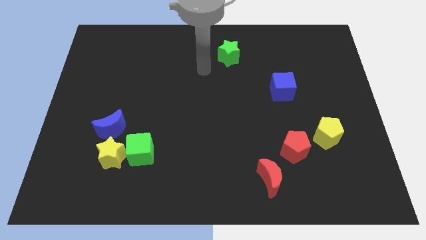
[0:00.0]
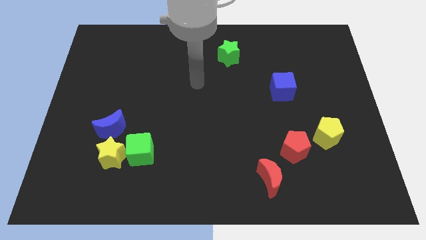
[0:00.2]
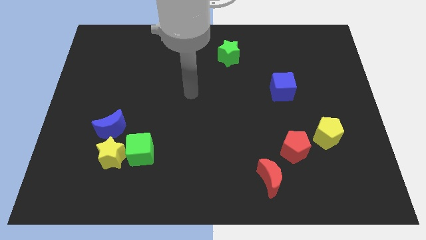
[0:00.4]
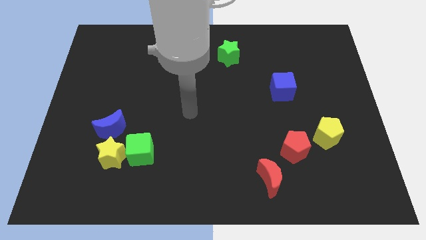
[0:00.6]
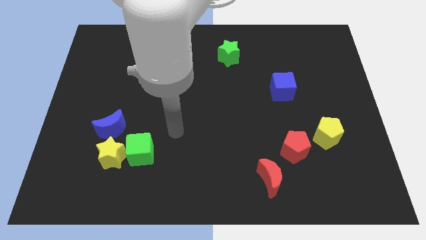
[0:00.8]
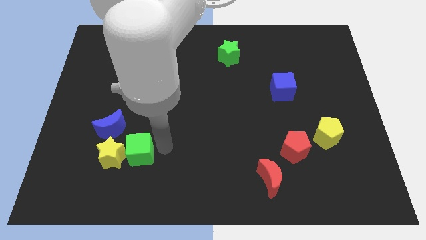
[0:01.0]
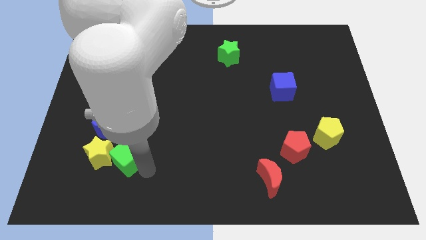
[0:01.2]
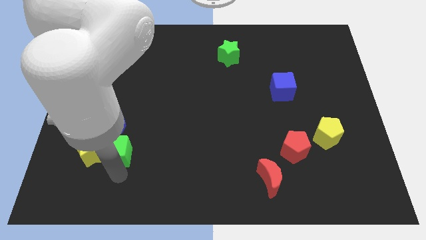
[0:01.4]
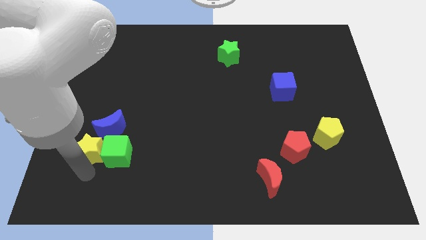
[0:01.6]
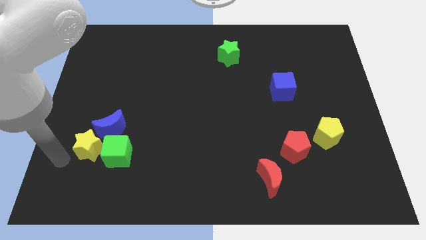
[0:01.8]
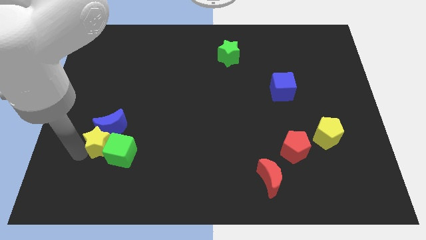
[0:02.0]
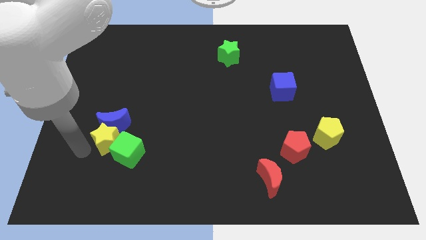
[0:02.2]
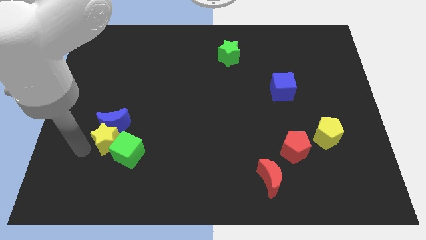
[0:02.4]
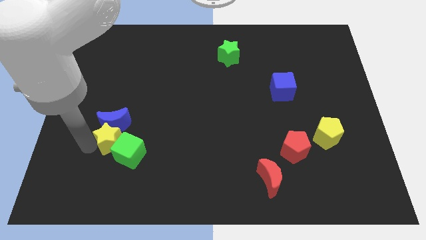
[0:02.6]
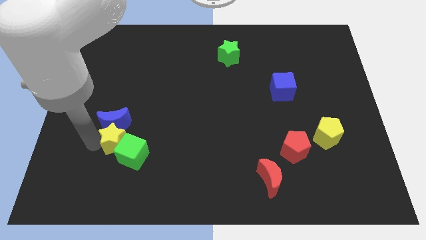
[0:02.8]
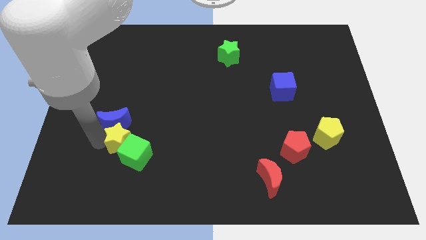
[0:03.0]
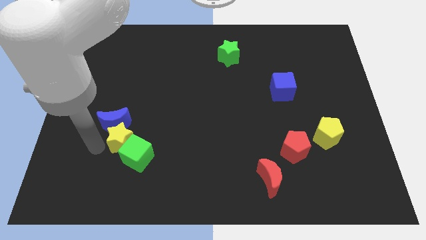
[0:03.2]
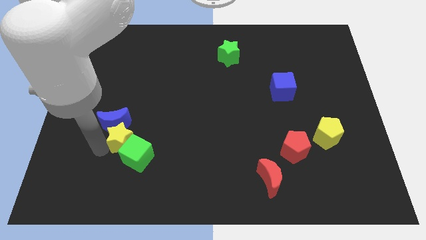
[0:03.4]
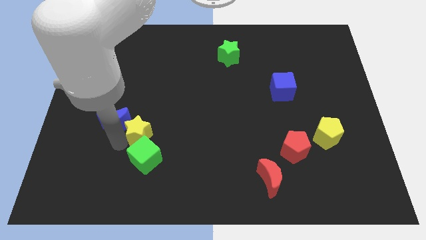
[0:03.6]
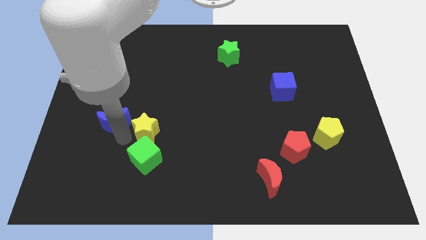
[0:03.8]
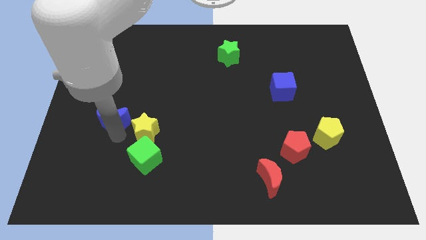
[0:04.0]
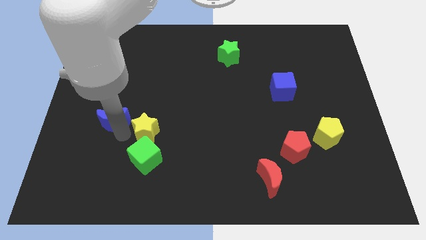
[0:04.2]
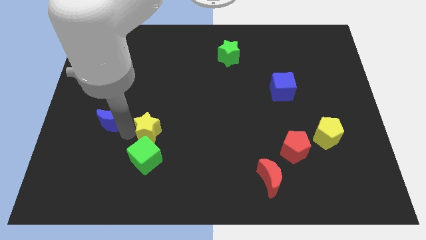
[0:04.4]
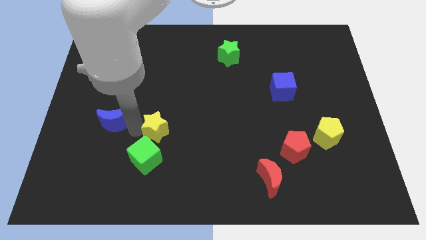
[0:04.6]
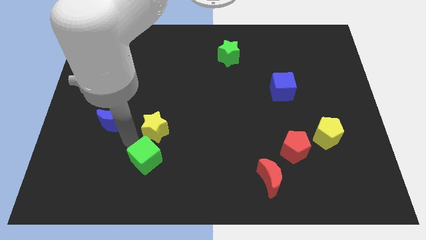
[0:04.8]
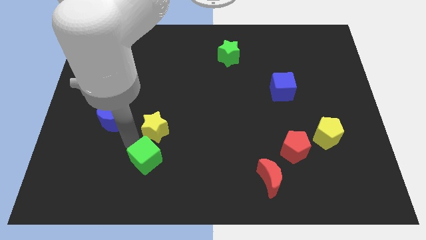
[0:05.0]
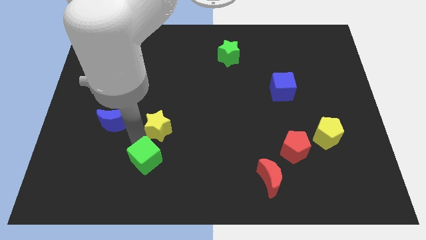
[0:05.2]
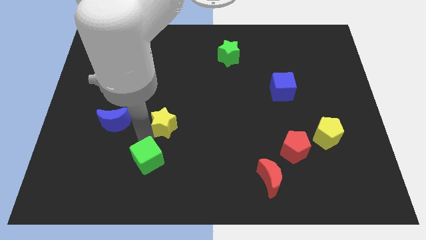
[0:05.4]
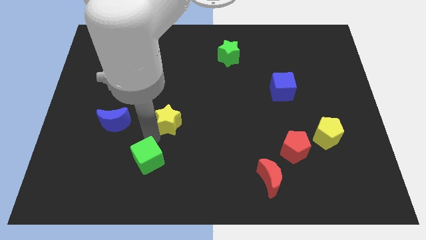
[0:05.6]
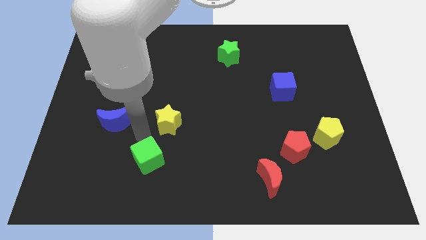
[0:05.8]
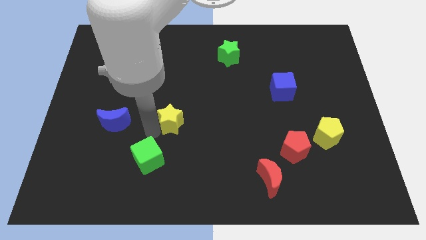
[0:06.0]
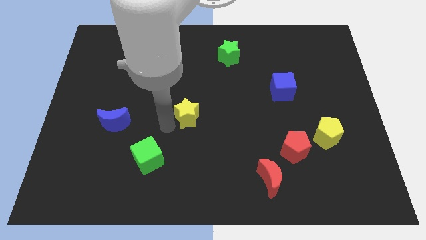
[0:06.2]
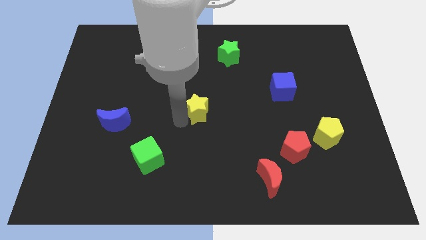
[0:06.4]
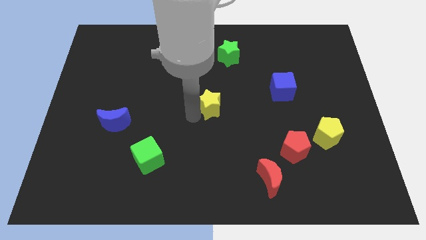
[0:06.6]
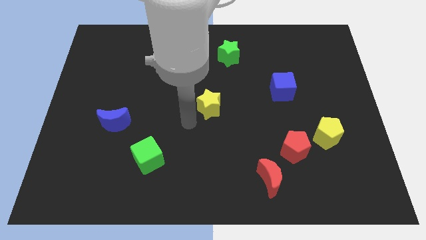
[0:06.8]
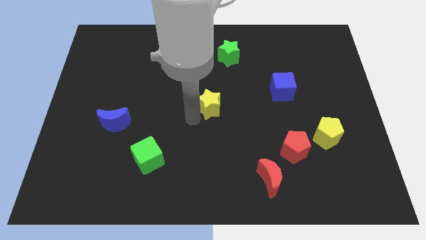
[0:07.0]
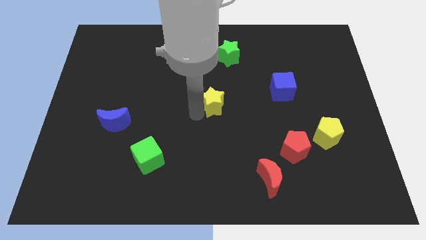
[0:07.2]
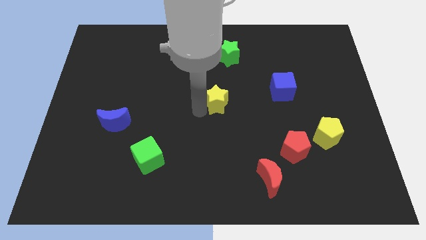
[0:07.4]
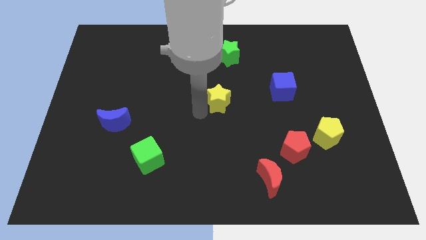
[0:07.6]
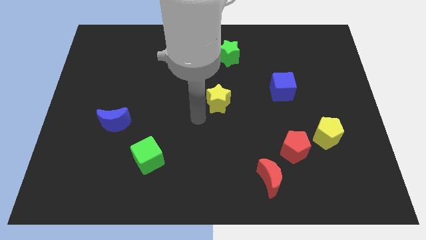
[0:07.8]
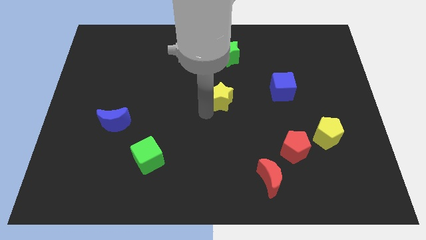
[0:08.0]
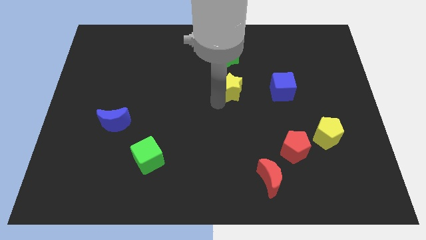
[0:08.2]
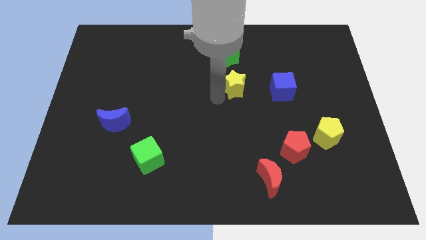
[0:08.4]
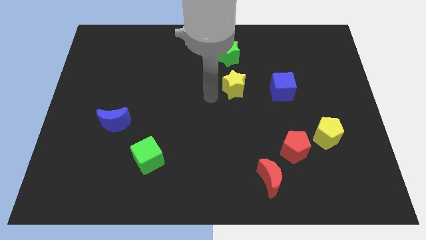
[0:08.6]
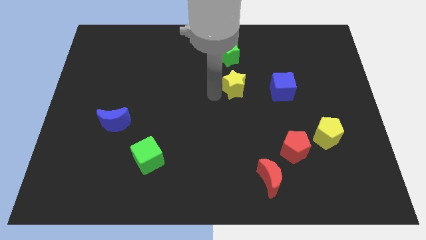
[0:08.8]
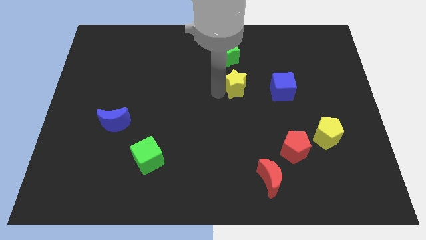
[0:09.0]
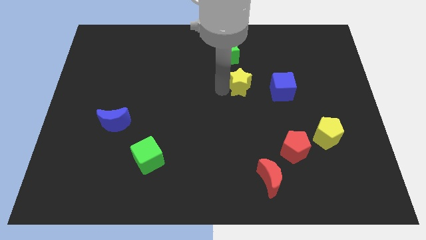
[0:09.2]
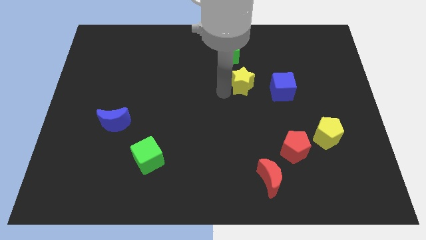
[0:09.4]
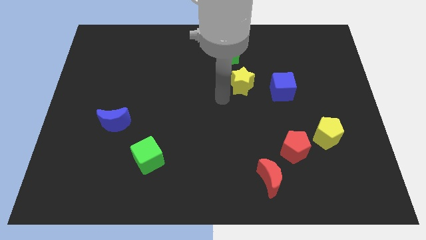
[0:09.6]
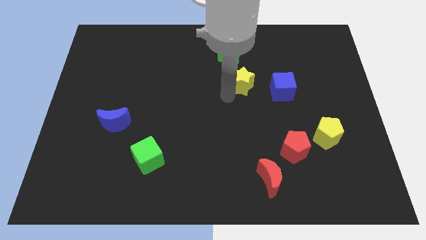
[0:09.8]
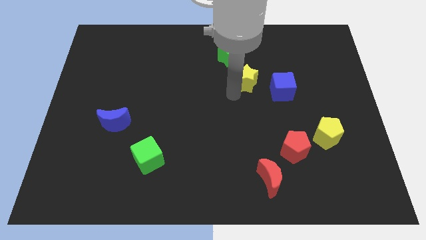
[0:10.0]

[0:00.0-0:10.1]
move the yellow star to the top left of the blue cube

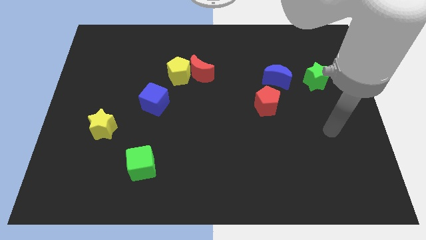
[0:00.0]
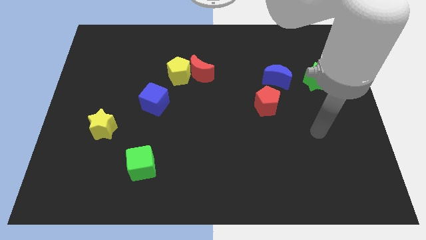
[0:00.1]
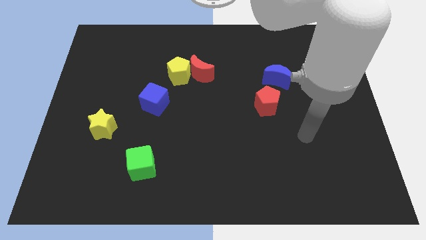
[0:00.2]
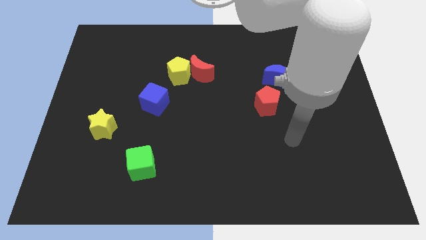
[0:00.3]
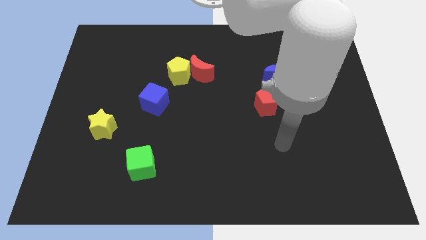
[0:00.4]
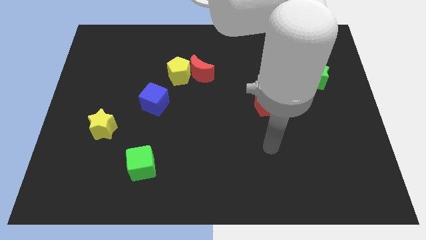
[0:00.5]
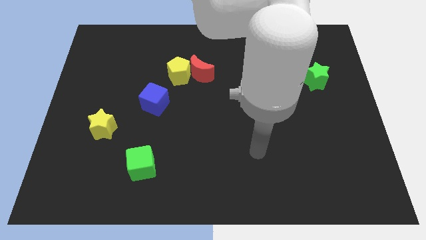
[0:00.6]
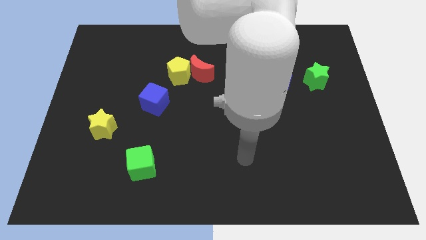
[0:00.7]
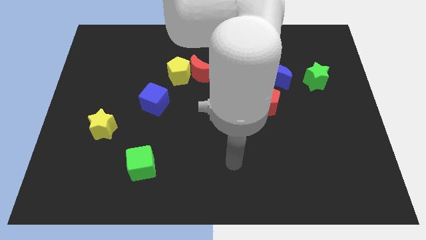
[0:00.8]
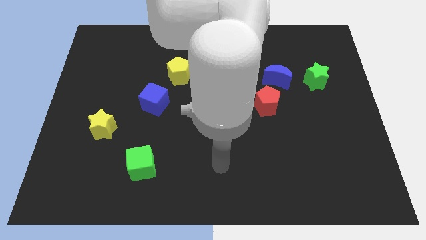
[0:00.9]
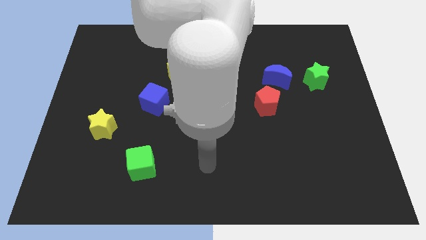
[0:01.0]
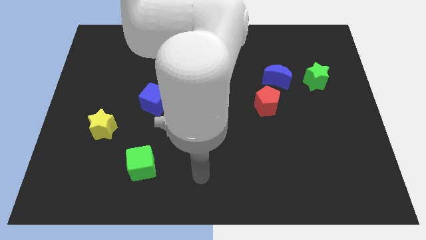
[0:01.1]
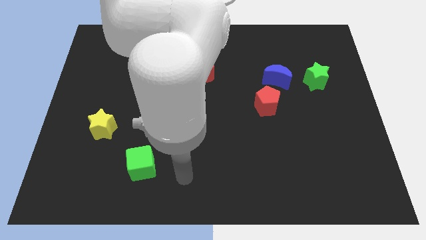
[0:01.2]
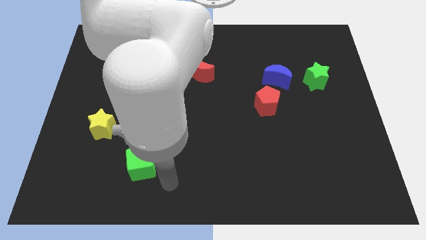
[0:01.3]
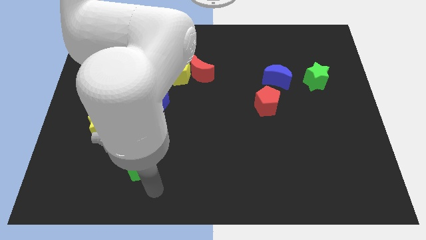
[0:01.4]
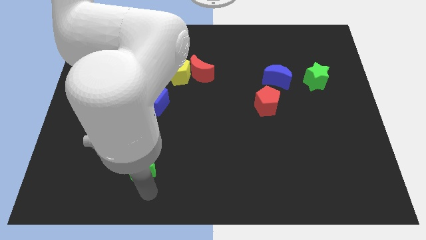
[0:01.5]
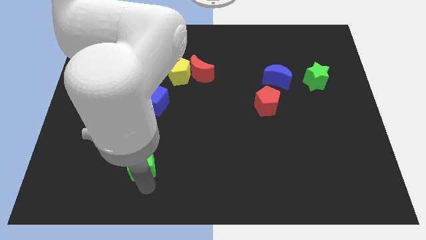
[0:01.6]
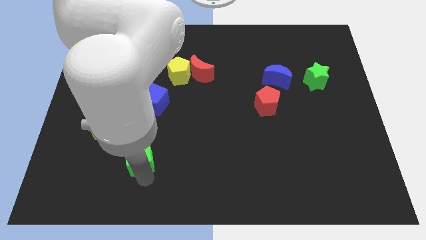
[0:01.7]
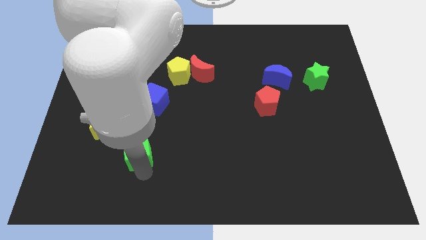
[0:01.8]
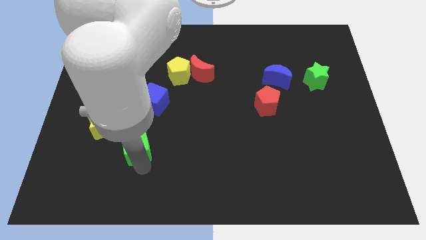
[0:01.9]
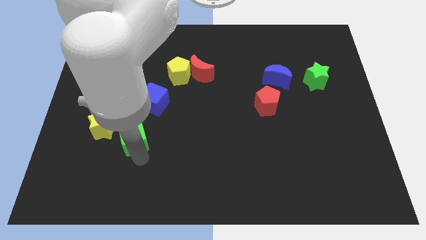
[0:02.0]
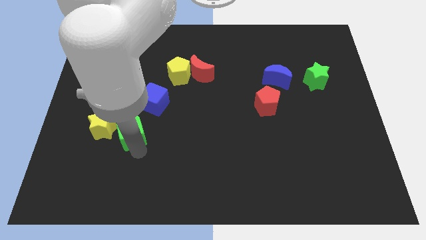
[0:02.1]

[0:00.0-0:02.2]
put the green cube diagonally down and to the left of the blue cube
